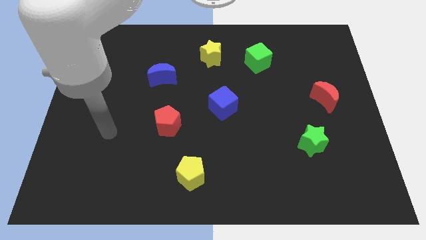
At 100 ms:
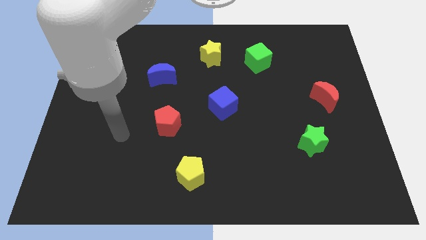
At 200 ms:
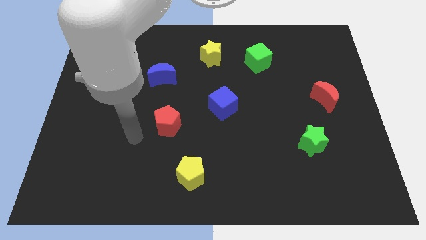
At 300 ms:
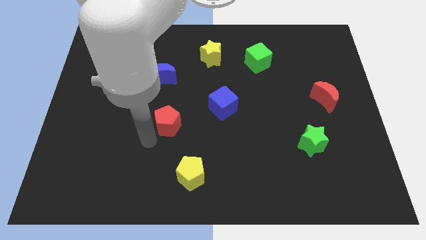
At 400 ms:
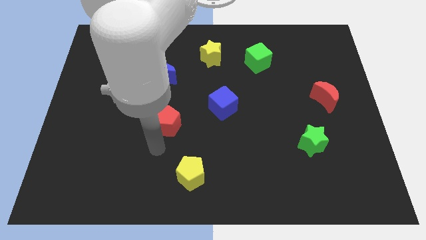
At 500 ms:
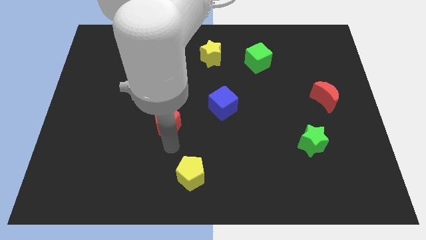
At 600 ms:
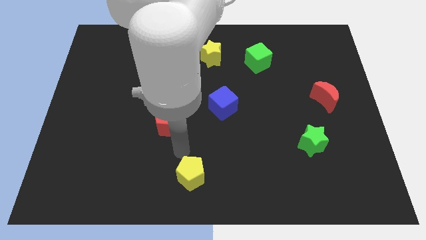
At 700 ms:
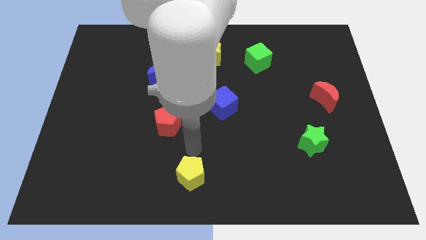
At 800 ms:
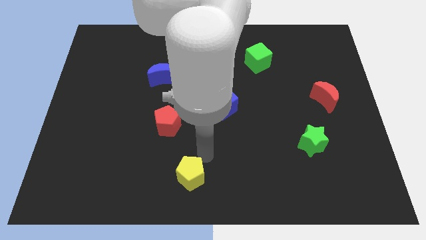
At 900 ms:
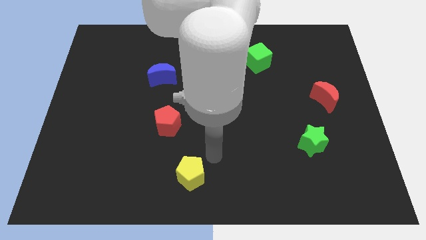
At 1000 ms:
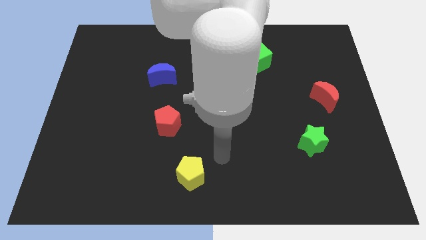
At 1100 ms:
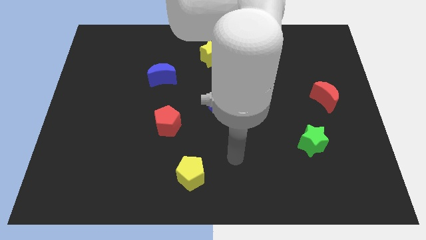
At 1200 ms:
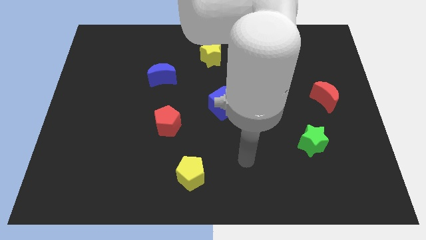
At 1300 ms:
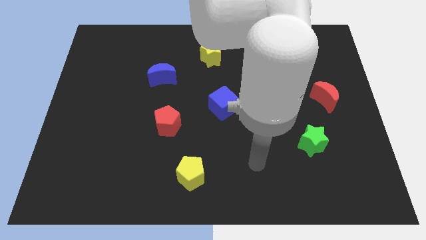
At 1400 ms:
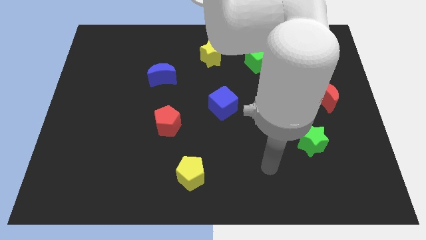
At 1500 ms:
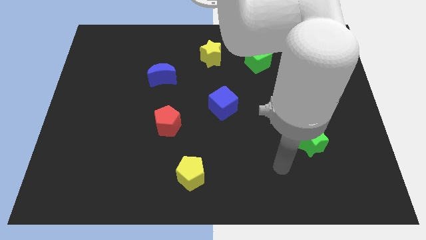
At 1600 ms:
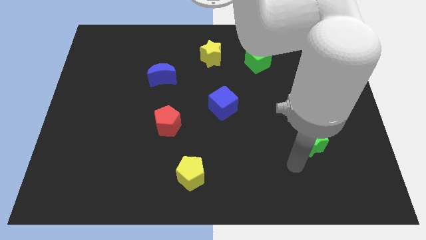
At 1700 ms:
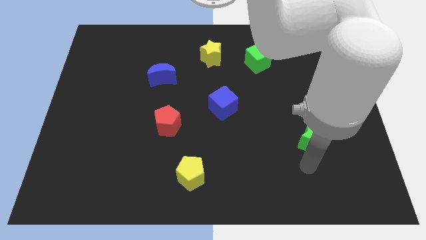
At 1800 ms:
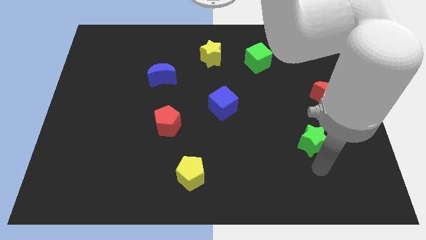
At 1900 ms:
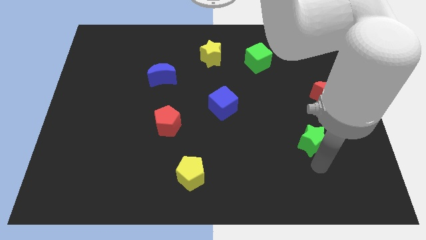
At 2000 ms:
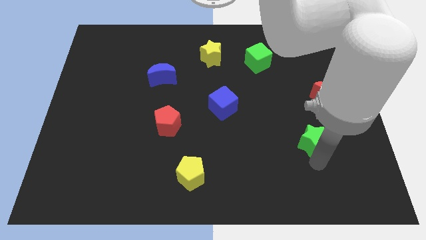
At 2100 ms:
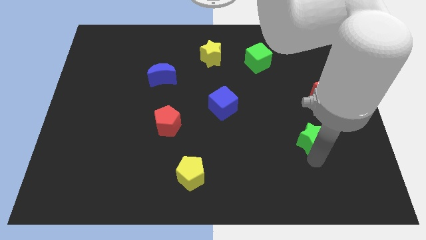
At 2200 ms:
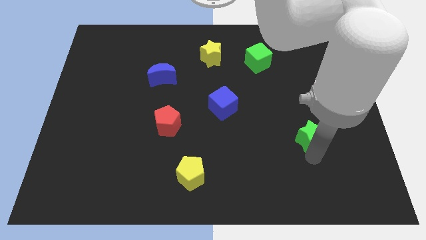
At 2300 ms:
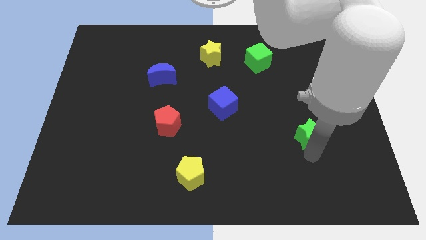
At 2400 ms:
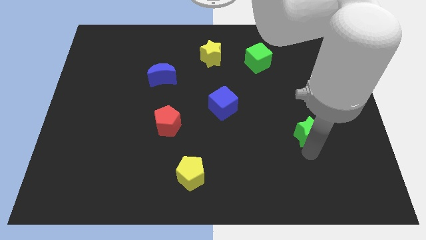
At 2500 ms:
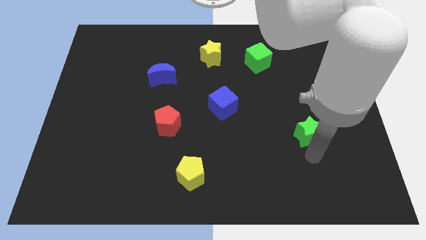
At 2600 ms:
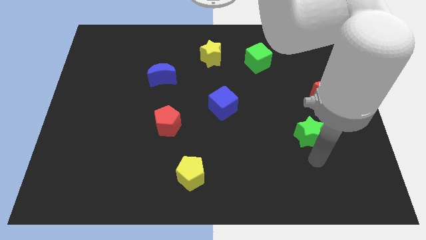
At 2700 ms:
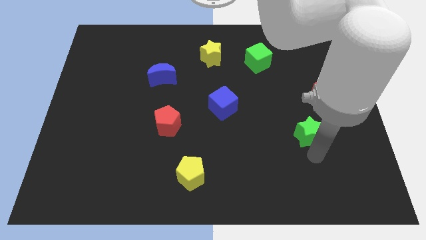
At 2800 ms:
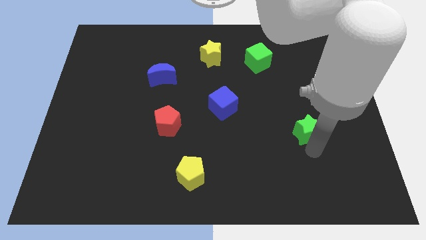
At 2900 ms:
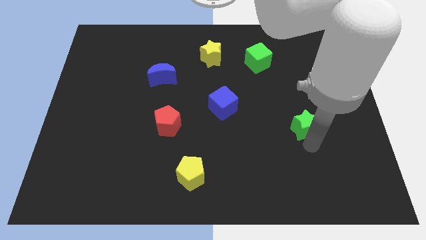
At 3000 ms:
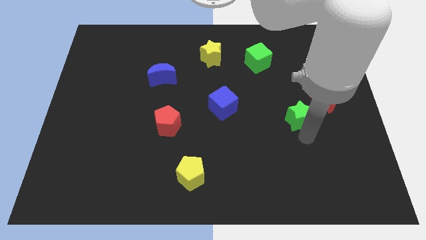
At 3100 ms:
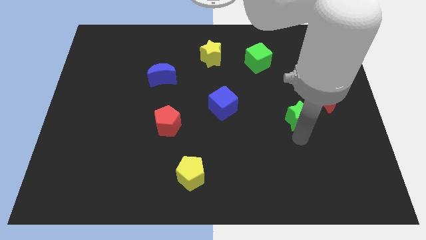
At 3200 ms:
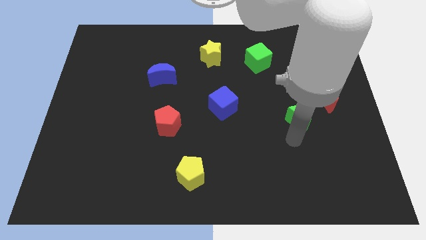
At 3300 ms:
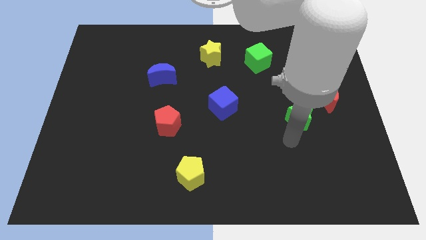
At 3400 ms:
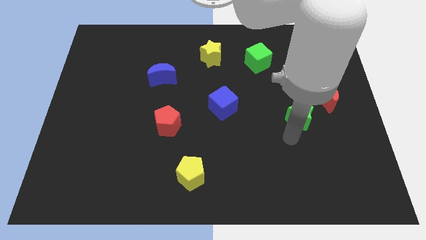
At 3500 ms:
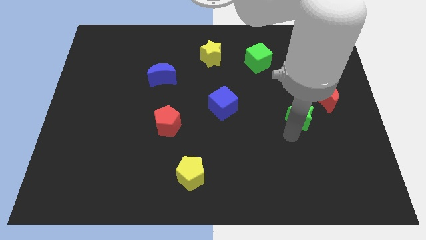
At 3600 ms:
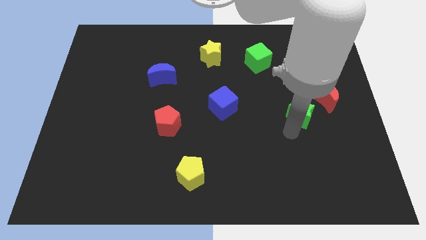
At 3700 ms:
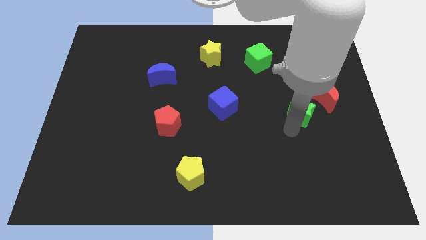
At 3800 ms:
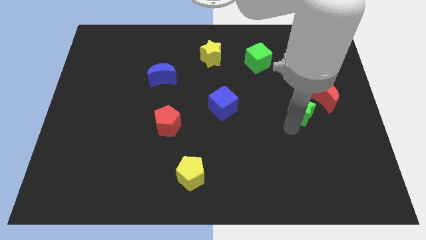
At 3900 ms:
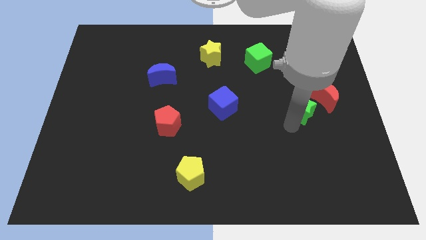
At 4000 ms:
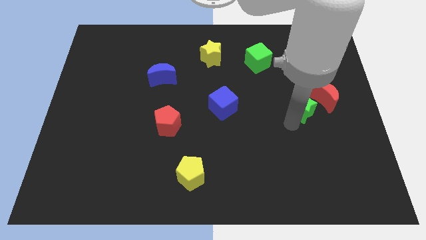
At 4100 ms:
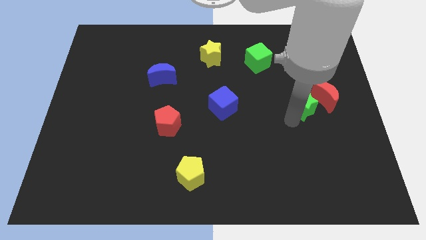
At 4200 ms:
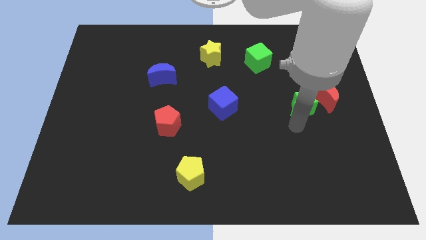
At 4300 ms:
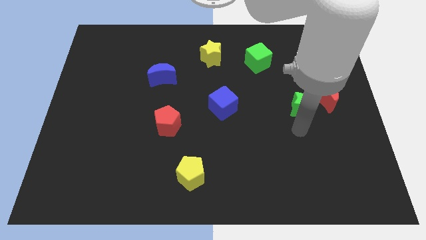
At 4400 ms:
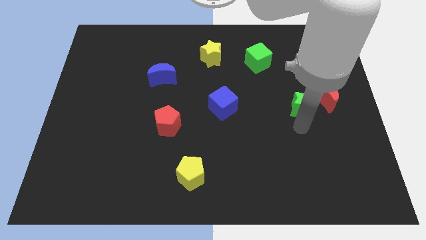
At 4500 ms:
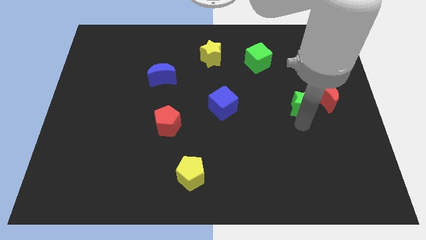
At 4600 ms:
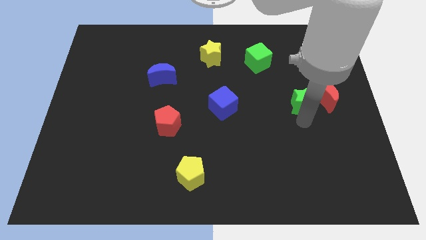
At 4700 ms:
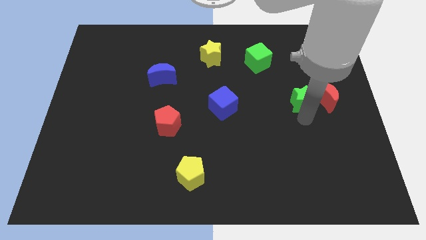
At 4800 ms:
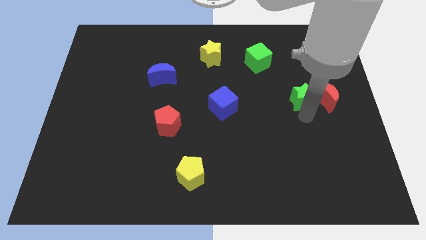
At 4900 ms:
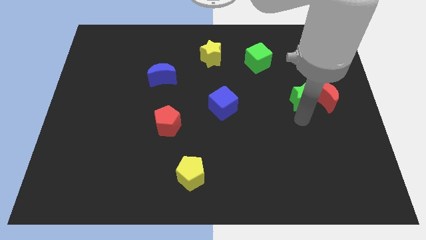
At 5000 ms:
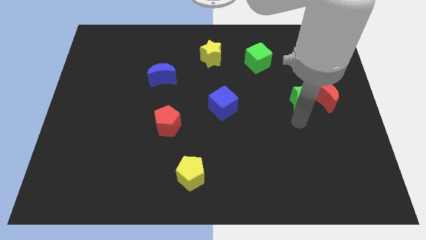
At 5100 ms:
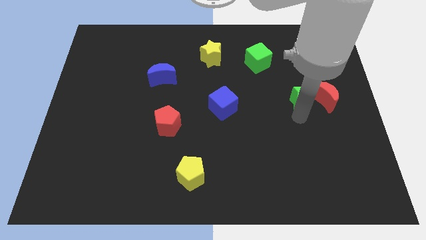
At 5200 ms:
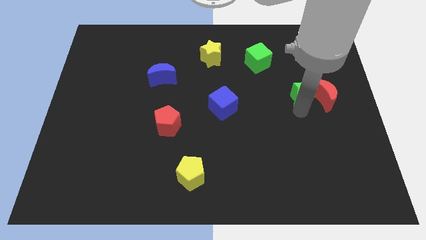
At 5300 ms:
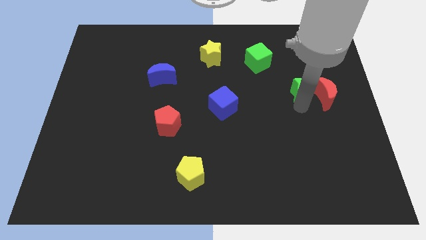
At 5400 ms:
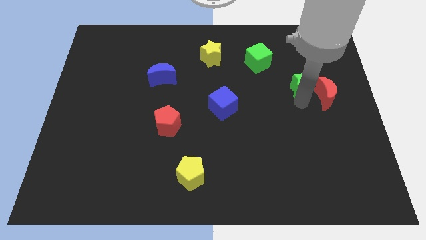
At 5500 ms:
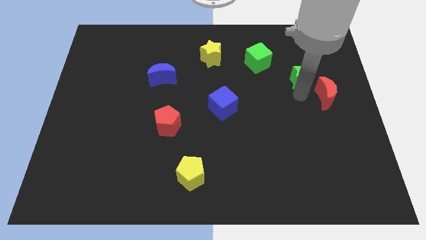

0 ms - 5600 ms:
move the green star to the top of the red moon

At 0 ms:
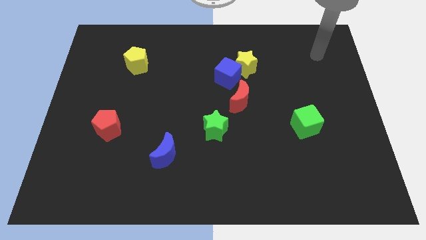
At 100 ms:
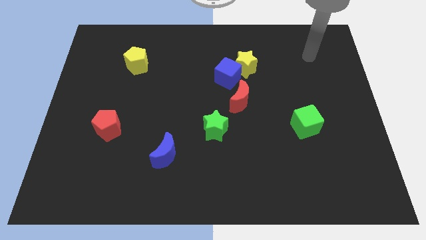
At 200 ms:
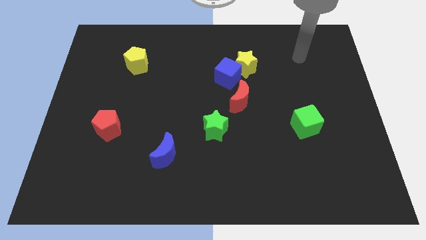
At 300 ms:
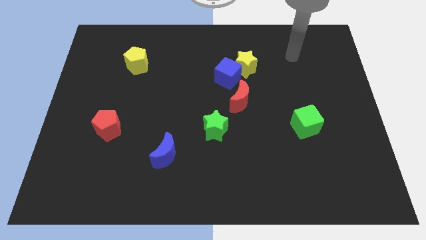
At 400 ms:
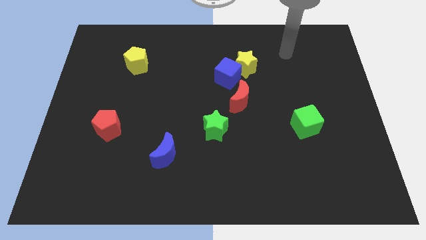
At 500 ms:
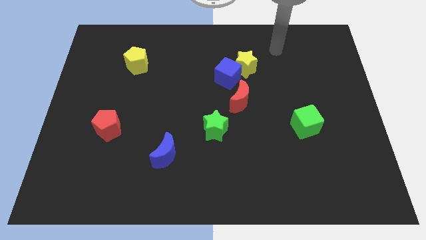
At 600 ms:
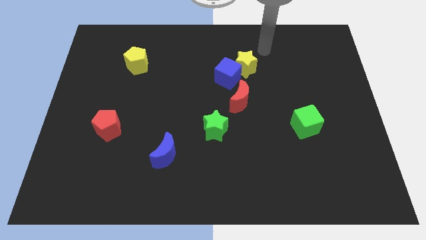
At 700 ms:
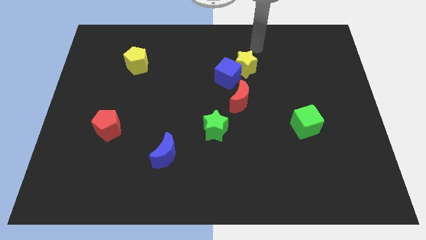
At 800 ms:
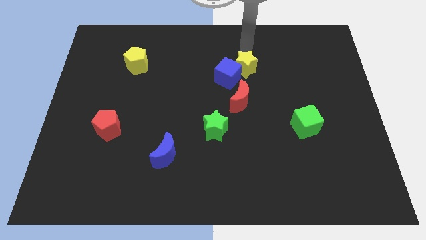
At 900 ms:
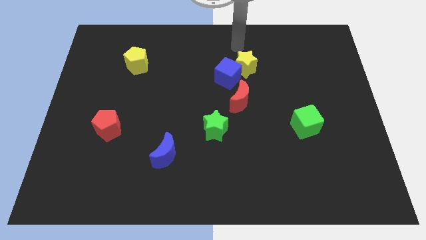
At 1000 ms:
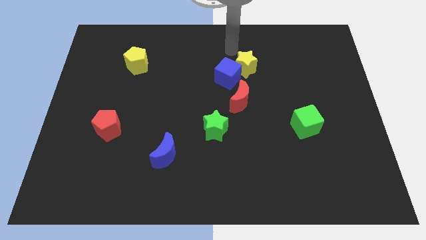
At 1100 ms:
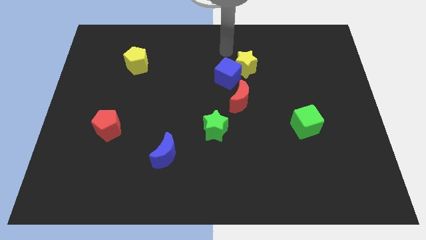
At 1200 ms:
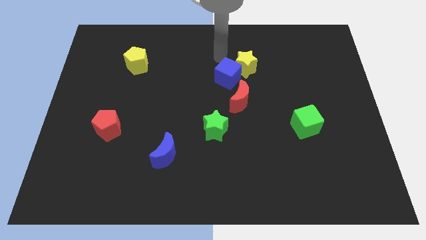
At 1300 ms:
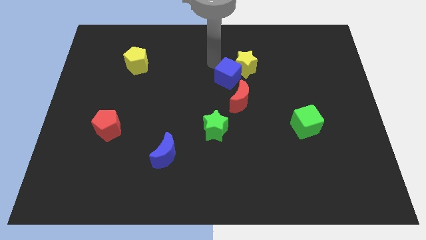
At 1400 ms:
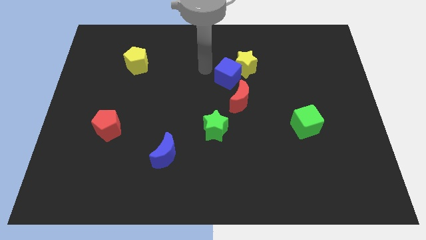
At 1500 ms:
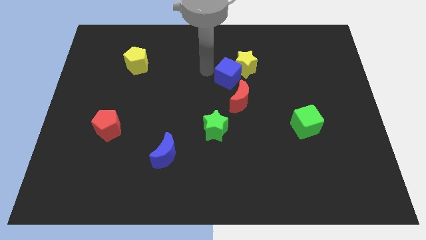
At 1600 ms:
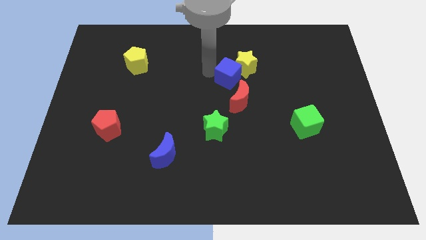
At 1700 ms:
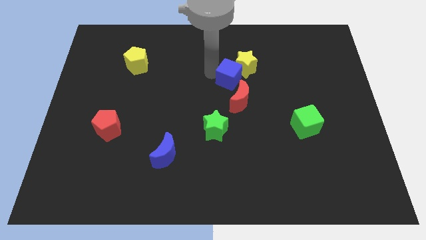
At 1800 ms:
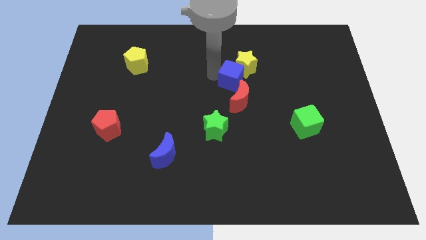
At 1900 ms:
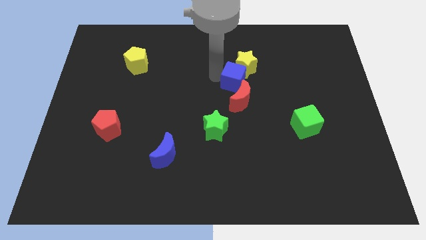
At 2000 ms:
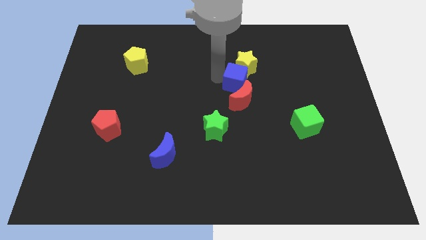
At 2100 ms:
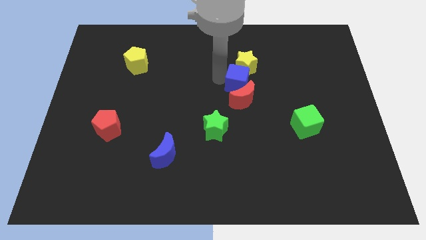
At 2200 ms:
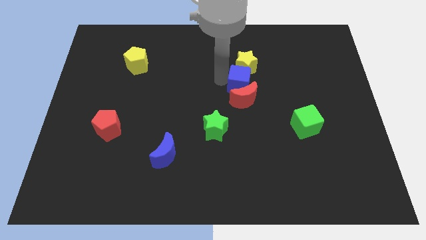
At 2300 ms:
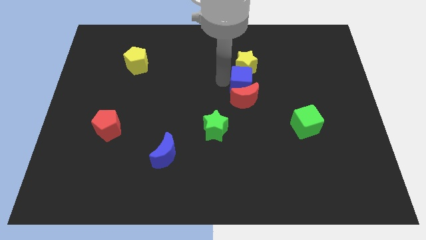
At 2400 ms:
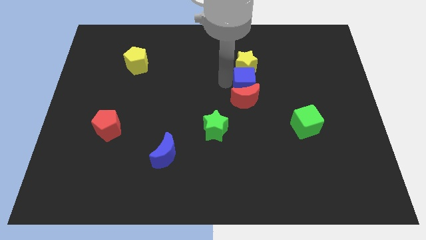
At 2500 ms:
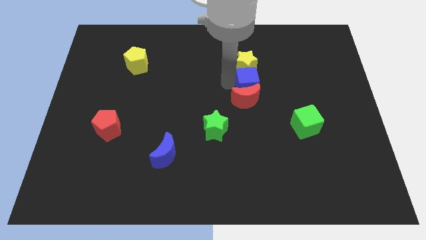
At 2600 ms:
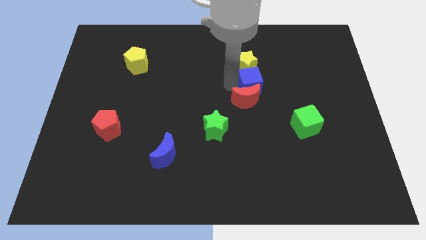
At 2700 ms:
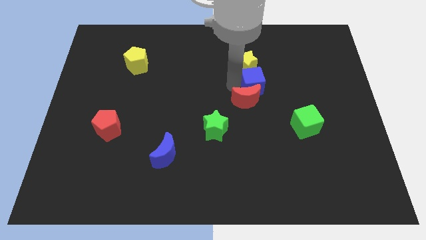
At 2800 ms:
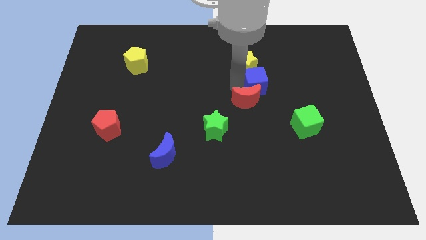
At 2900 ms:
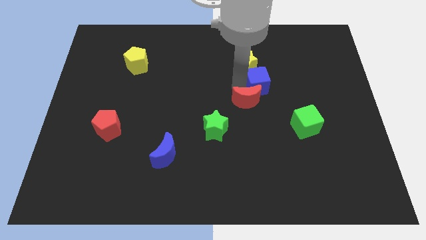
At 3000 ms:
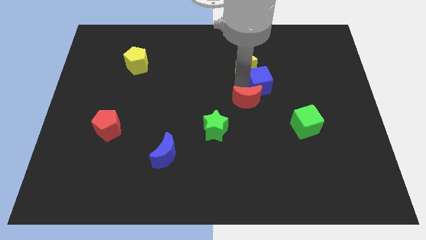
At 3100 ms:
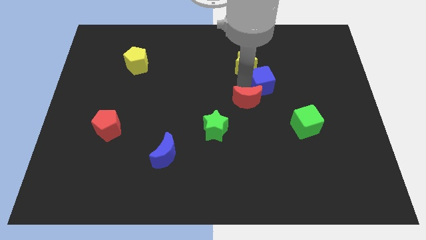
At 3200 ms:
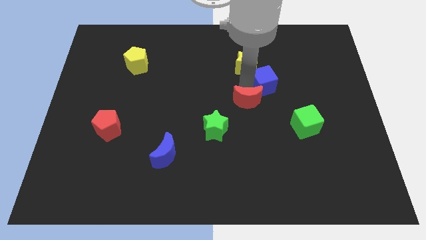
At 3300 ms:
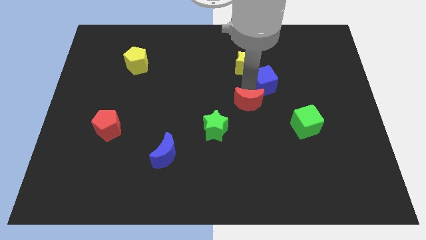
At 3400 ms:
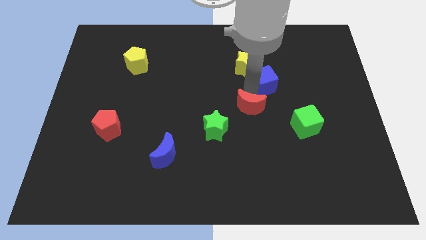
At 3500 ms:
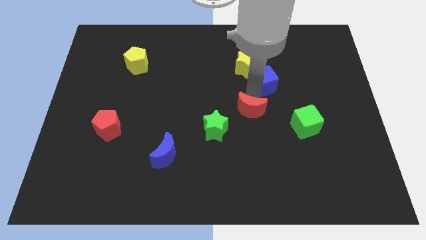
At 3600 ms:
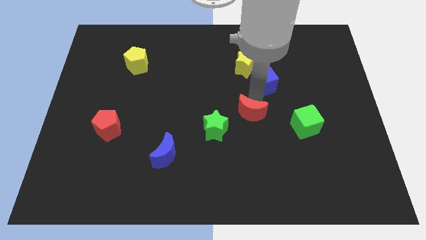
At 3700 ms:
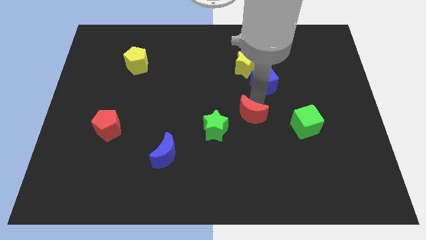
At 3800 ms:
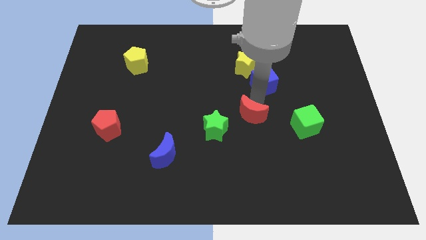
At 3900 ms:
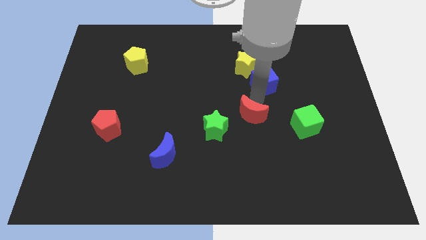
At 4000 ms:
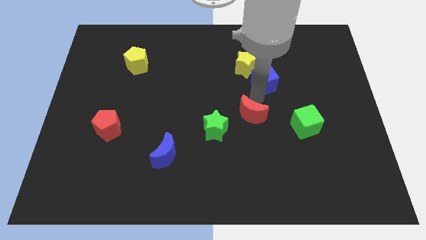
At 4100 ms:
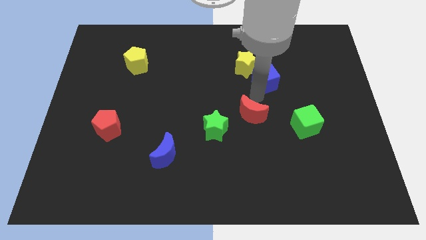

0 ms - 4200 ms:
move the blue cube to the right side of the yellow star
